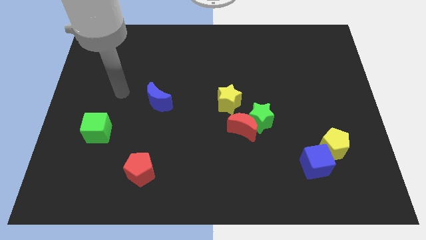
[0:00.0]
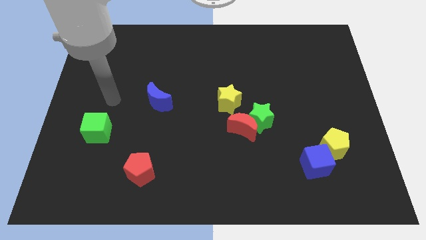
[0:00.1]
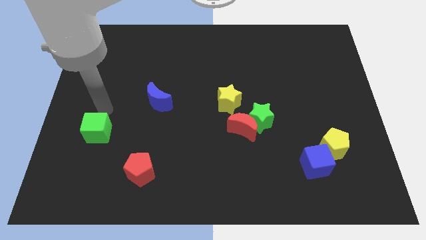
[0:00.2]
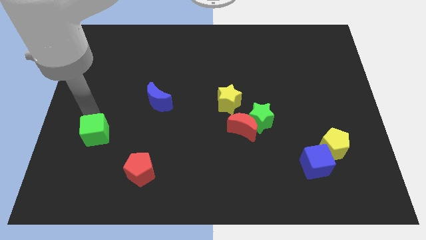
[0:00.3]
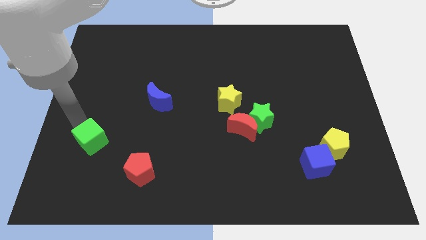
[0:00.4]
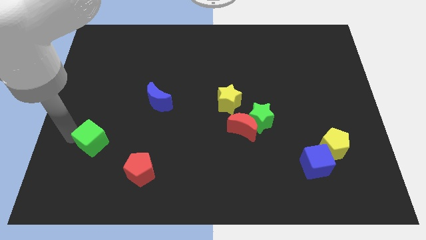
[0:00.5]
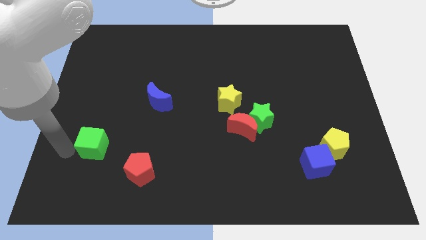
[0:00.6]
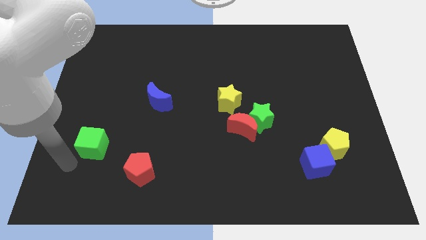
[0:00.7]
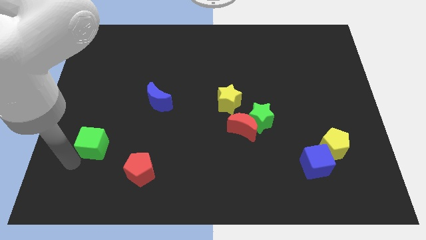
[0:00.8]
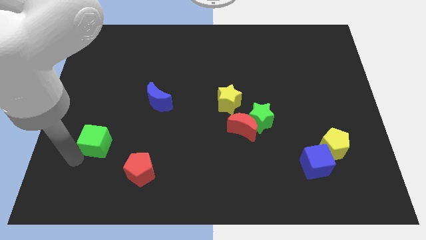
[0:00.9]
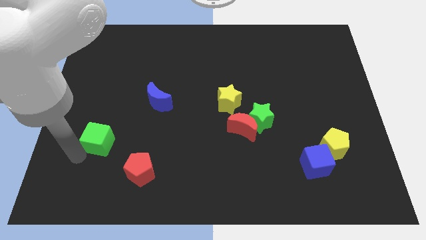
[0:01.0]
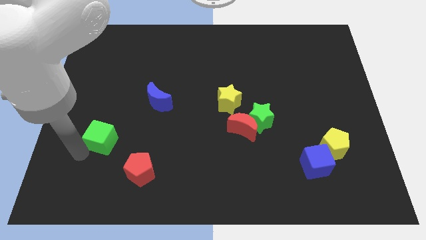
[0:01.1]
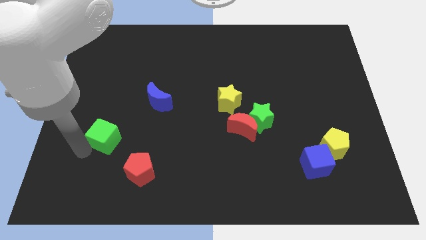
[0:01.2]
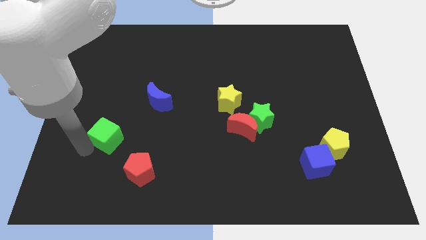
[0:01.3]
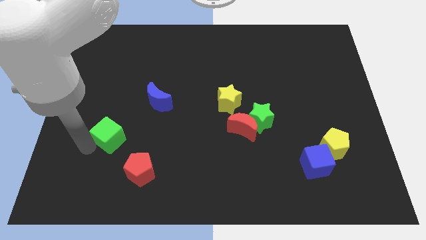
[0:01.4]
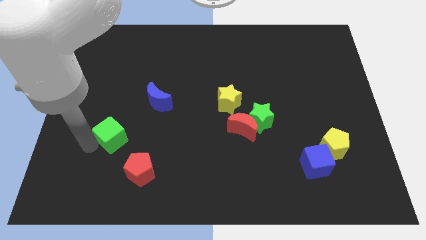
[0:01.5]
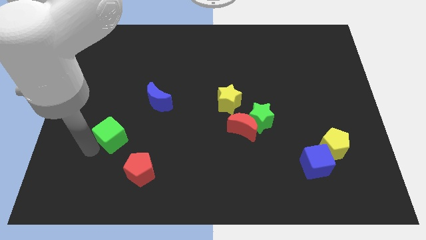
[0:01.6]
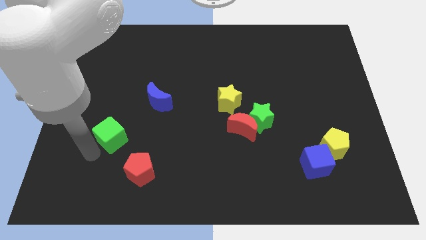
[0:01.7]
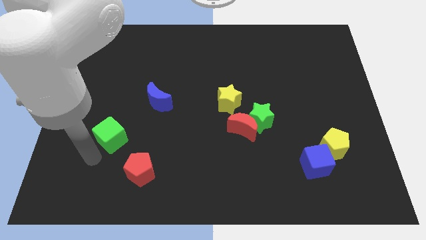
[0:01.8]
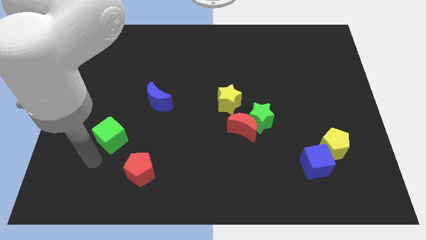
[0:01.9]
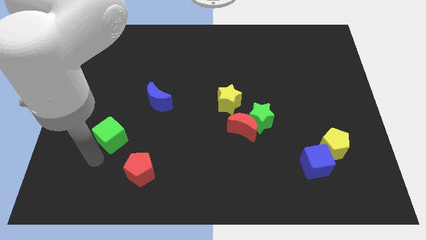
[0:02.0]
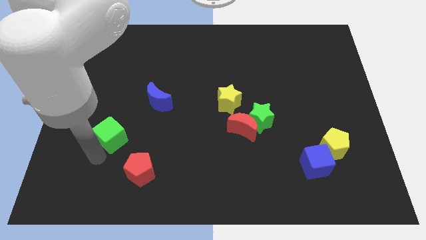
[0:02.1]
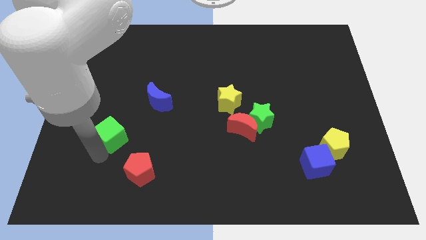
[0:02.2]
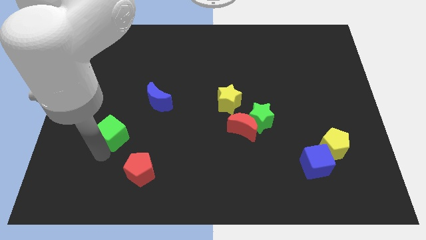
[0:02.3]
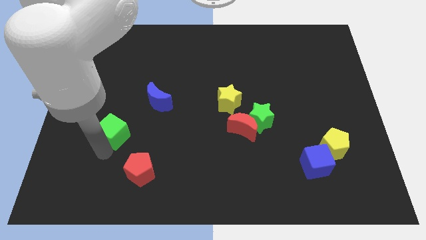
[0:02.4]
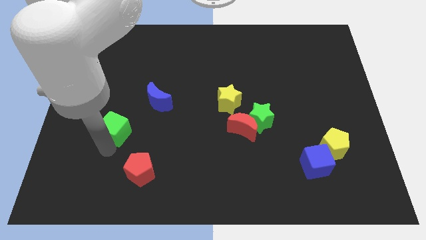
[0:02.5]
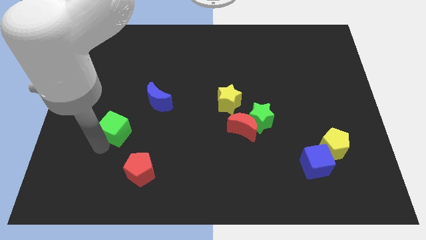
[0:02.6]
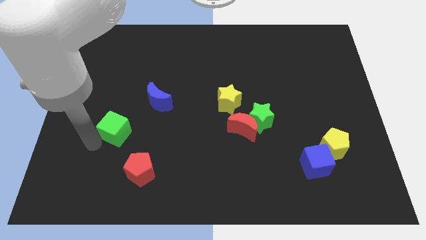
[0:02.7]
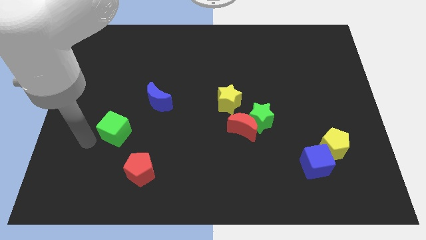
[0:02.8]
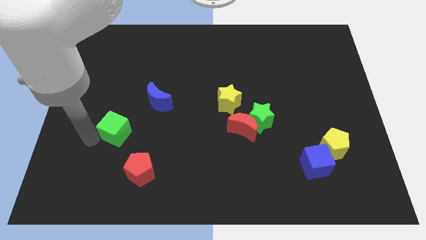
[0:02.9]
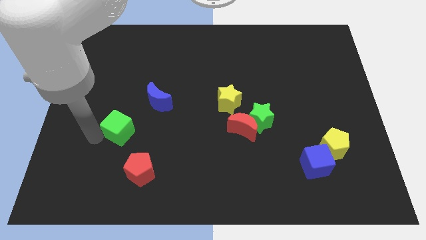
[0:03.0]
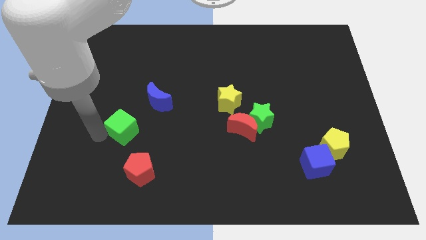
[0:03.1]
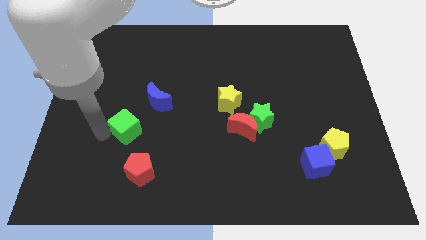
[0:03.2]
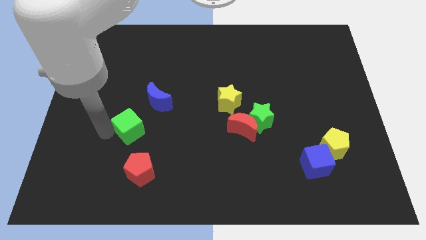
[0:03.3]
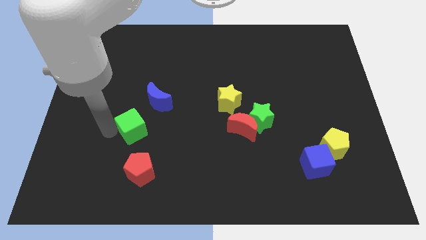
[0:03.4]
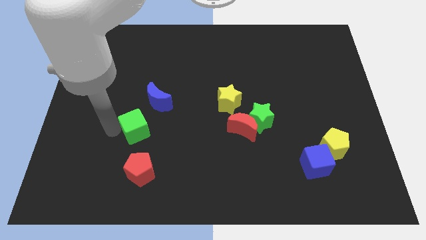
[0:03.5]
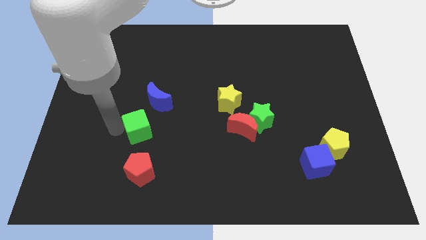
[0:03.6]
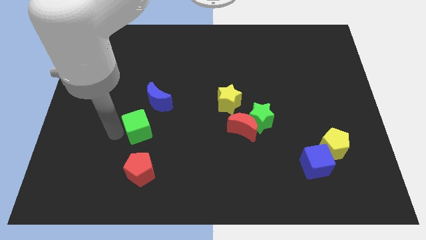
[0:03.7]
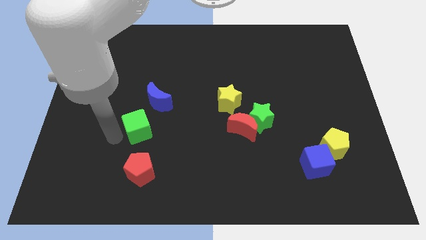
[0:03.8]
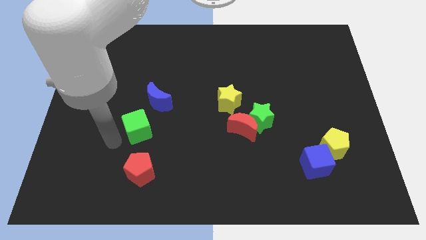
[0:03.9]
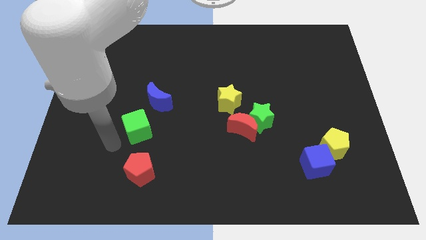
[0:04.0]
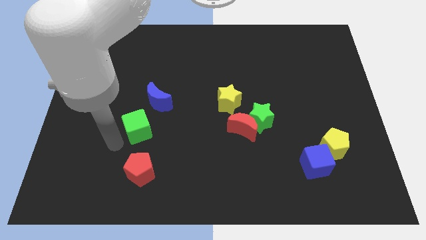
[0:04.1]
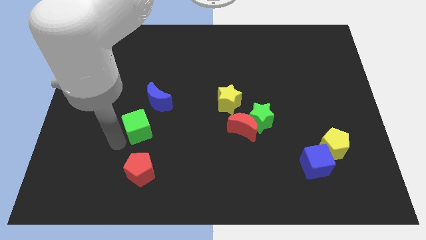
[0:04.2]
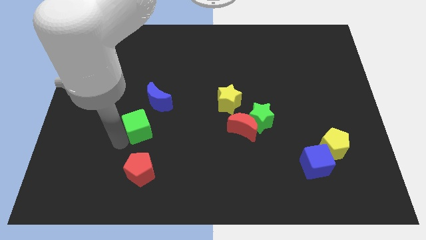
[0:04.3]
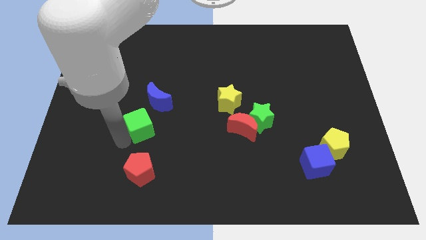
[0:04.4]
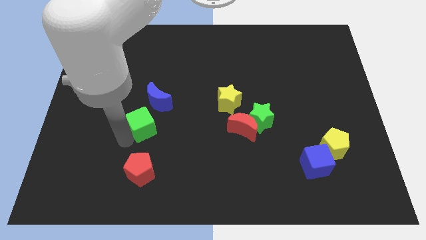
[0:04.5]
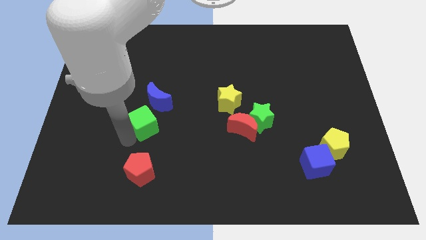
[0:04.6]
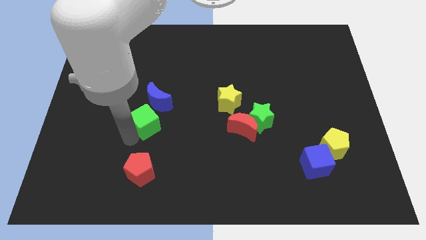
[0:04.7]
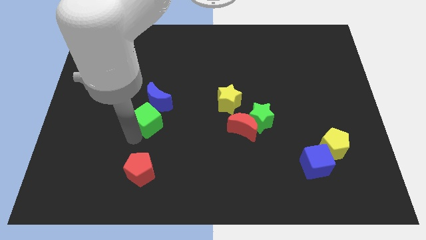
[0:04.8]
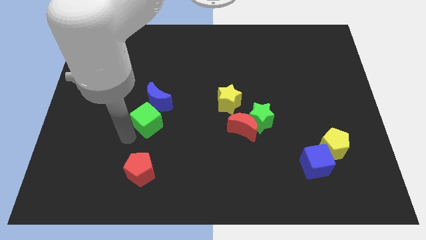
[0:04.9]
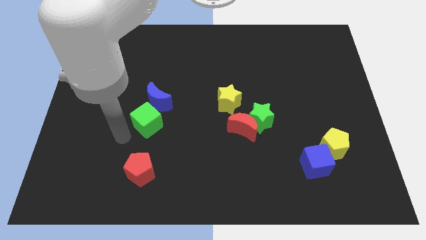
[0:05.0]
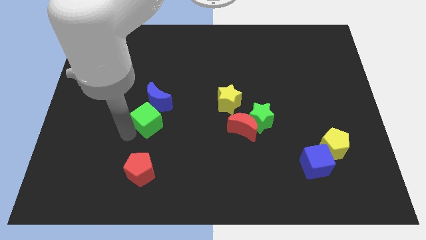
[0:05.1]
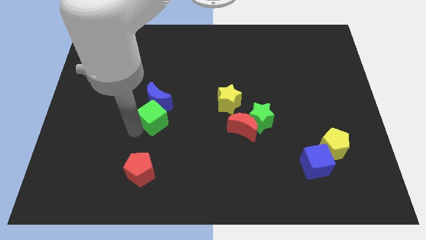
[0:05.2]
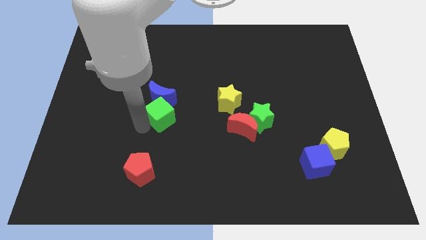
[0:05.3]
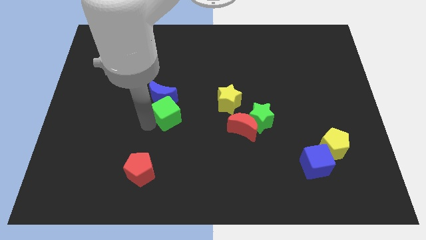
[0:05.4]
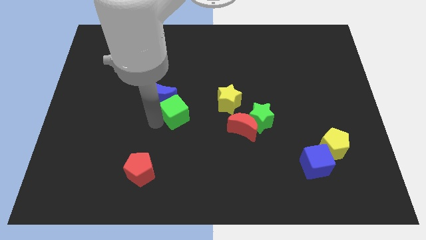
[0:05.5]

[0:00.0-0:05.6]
move the green cube to the left side of the yellow star

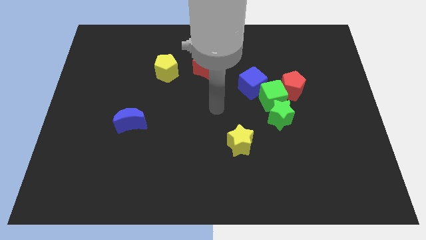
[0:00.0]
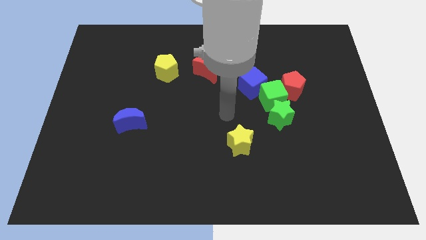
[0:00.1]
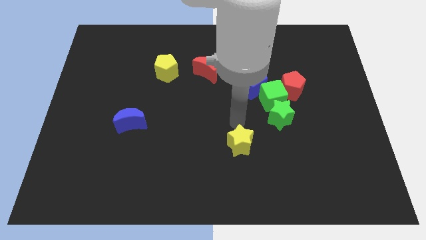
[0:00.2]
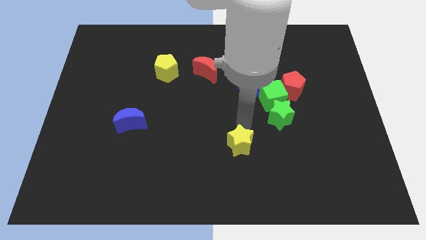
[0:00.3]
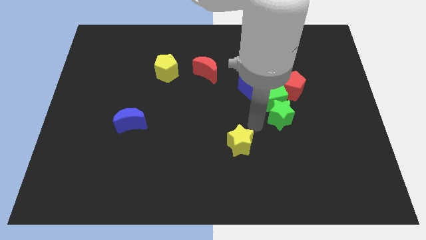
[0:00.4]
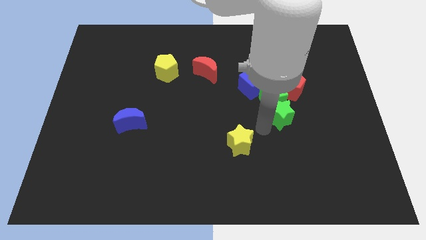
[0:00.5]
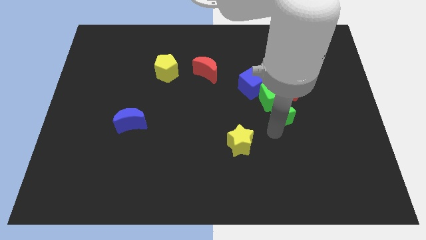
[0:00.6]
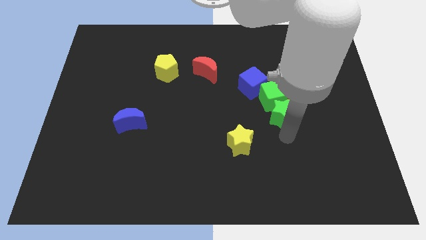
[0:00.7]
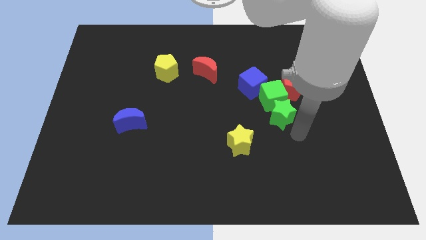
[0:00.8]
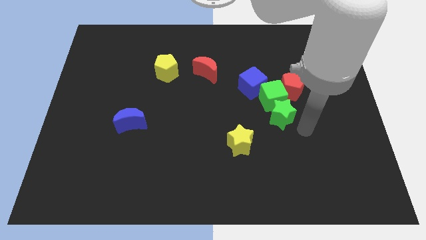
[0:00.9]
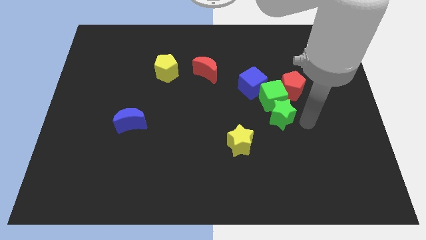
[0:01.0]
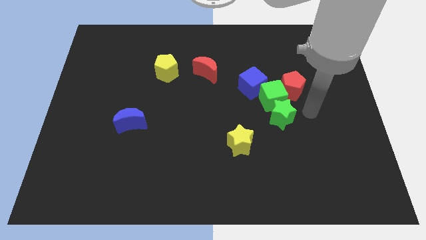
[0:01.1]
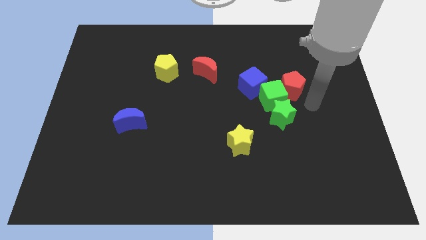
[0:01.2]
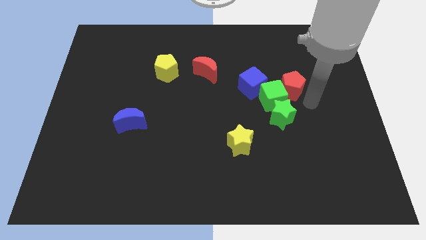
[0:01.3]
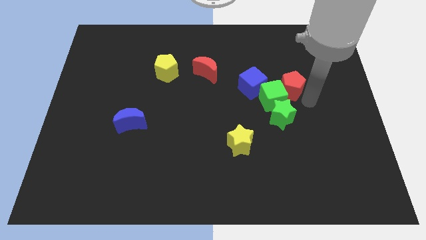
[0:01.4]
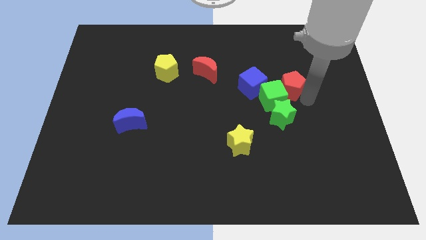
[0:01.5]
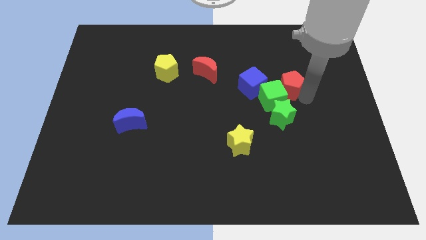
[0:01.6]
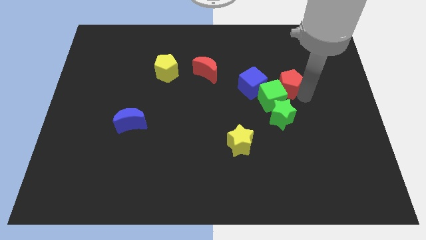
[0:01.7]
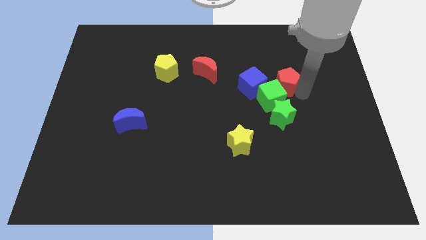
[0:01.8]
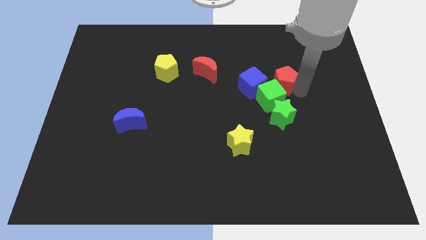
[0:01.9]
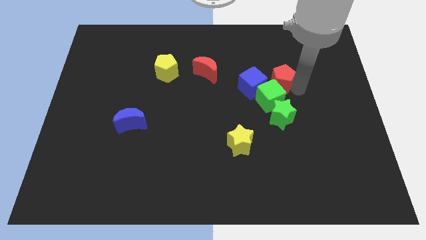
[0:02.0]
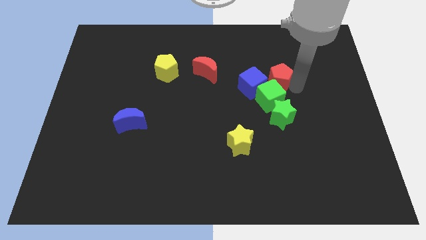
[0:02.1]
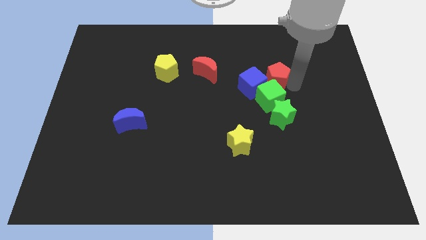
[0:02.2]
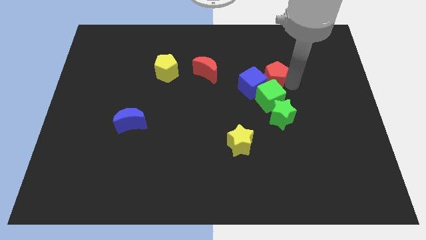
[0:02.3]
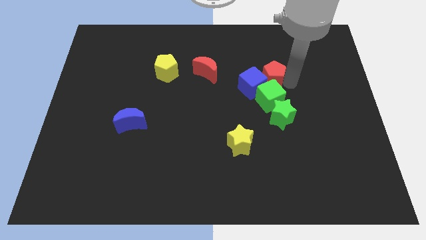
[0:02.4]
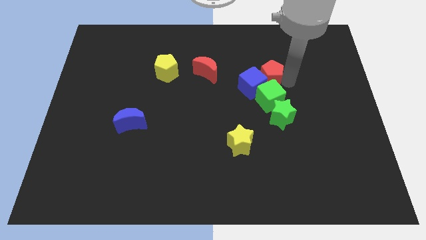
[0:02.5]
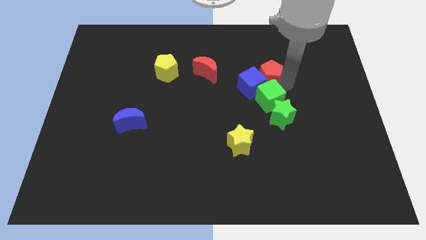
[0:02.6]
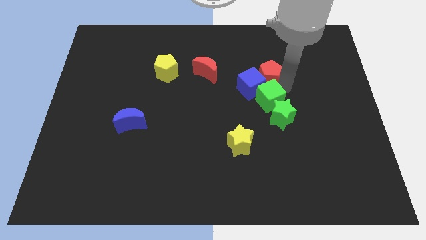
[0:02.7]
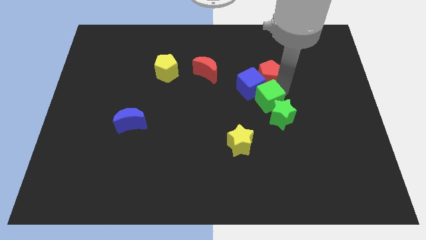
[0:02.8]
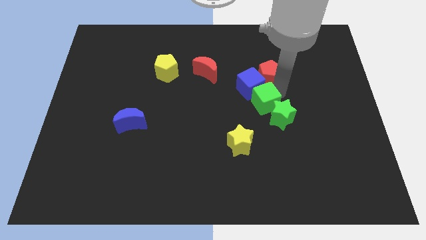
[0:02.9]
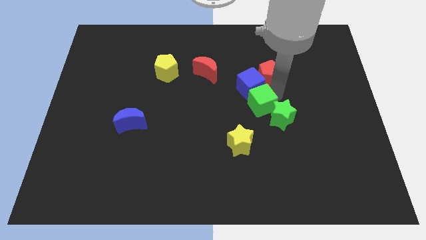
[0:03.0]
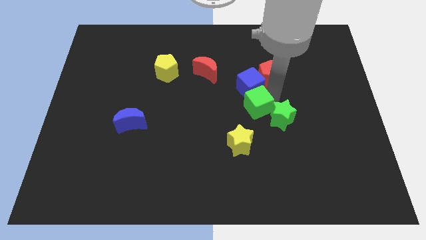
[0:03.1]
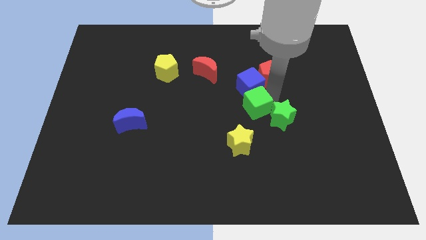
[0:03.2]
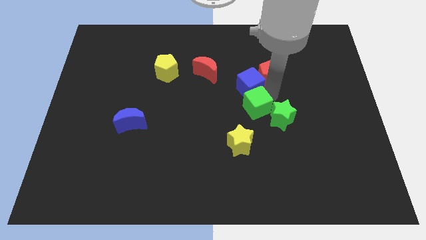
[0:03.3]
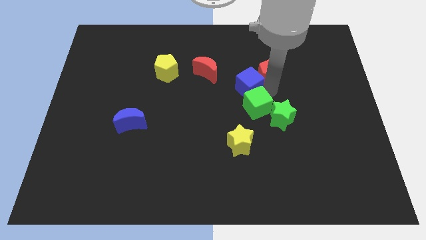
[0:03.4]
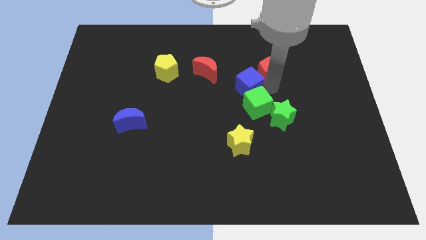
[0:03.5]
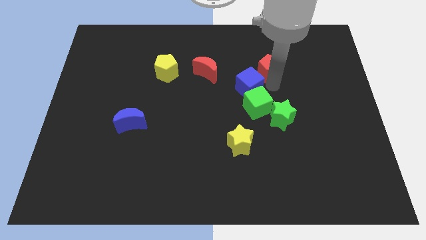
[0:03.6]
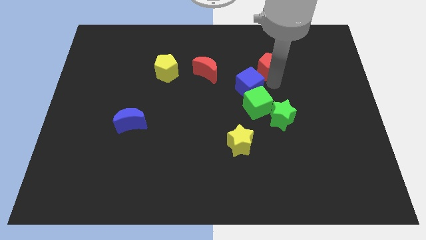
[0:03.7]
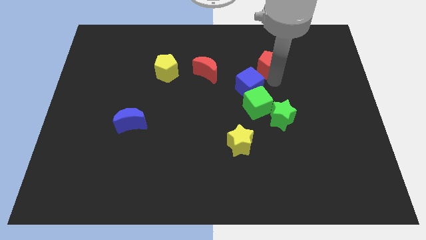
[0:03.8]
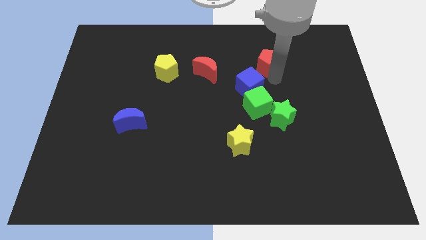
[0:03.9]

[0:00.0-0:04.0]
put the red pentagon to the top of the blue cube
